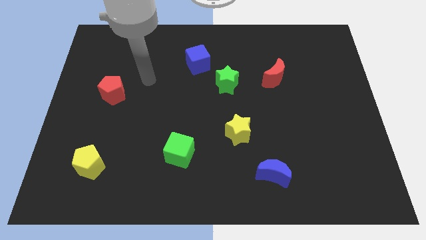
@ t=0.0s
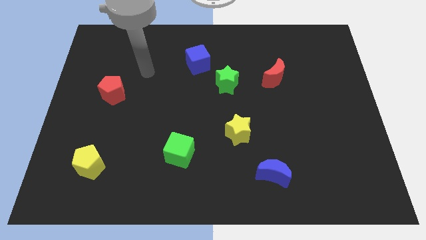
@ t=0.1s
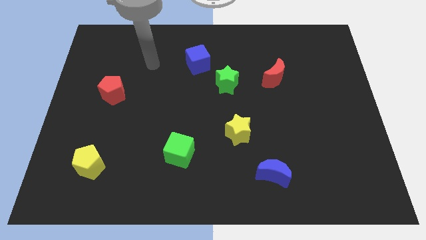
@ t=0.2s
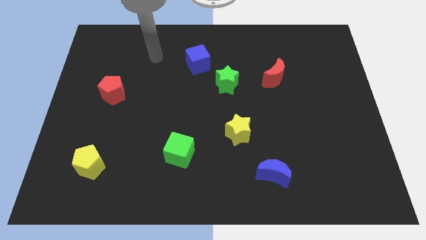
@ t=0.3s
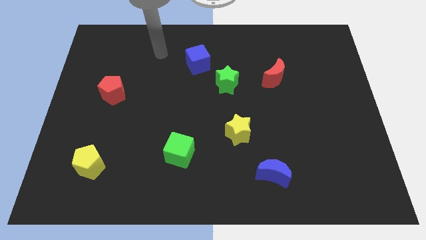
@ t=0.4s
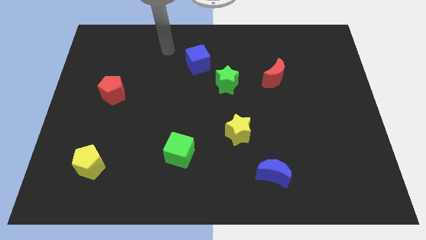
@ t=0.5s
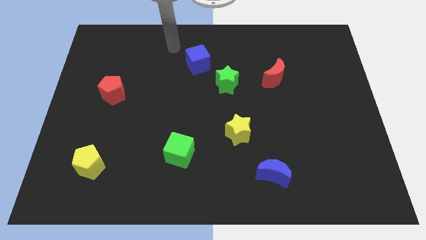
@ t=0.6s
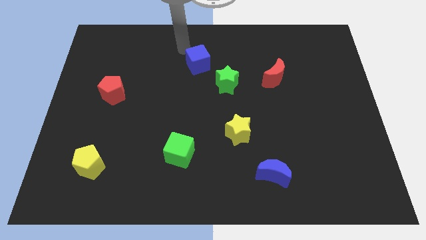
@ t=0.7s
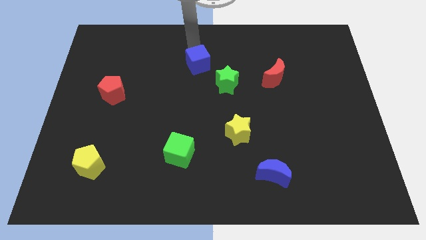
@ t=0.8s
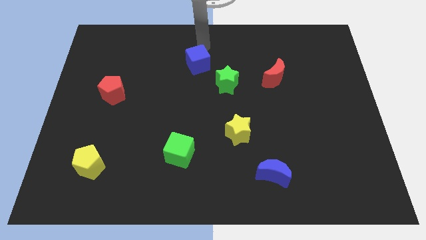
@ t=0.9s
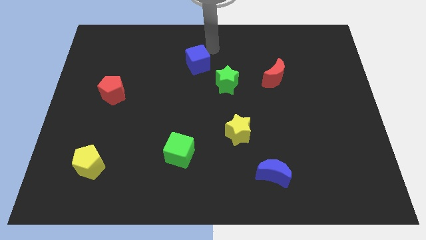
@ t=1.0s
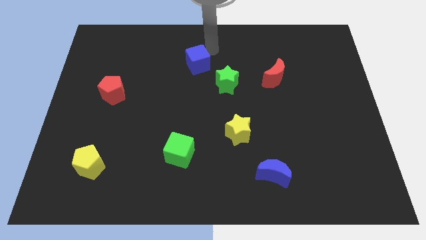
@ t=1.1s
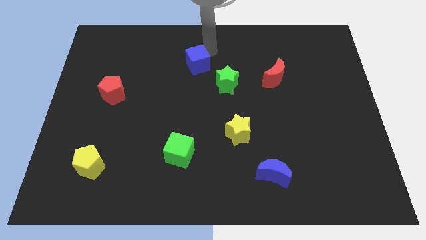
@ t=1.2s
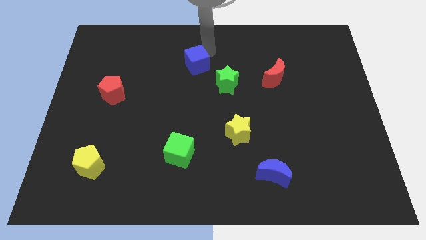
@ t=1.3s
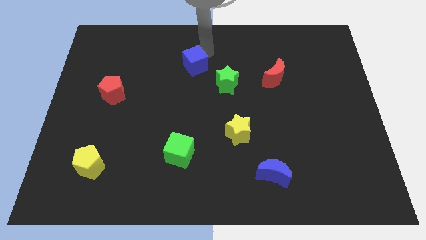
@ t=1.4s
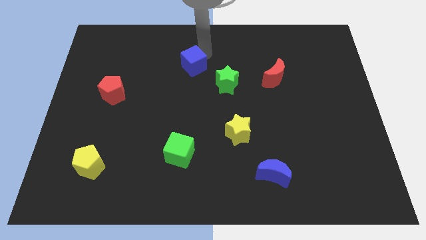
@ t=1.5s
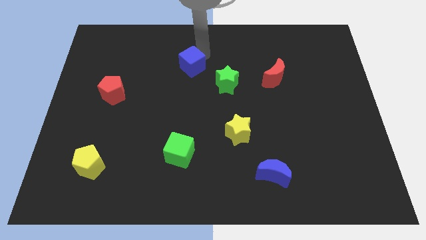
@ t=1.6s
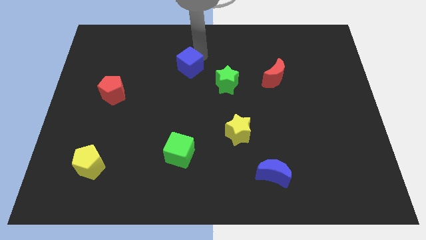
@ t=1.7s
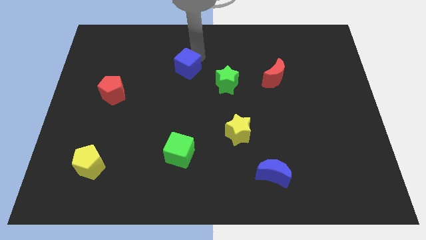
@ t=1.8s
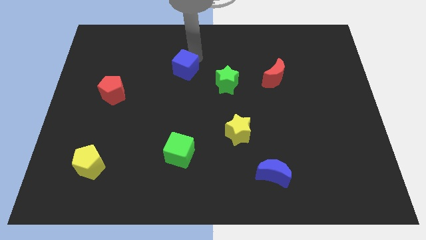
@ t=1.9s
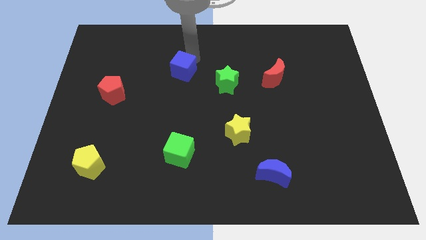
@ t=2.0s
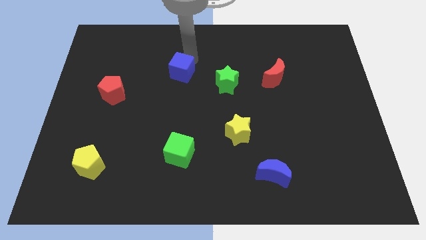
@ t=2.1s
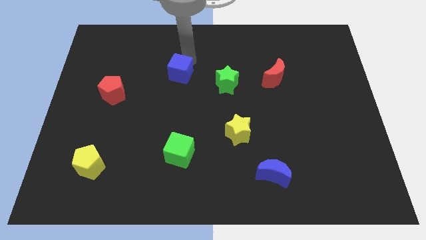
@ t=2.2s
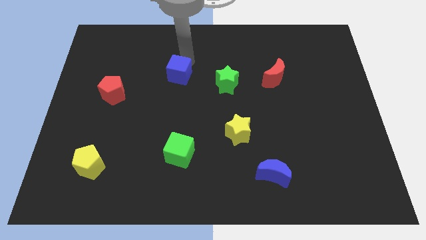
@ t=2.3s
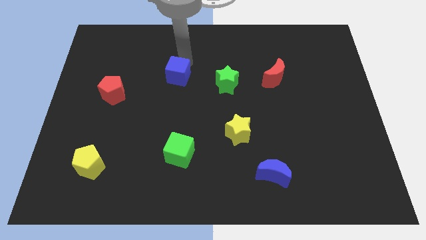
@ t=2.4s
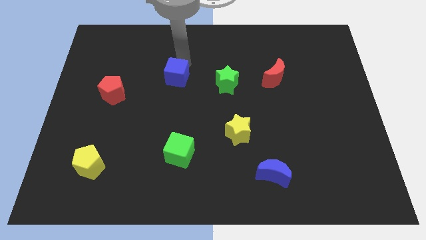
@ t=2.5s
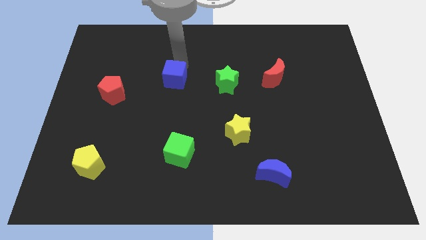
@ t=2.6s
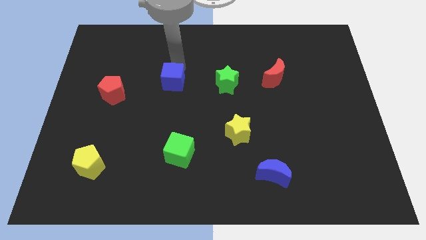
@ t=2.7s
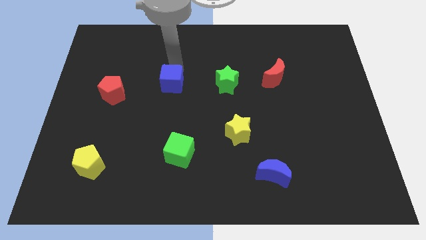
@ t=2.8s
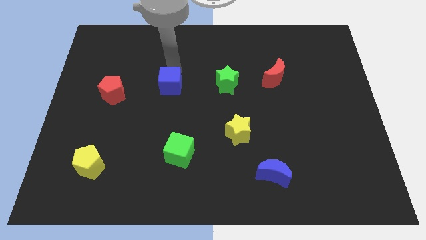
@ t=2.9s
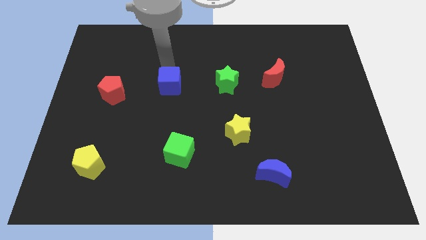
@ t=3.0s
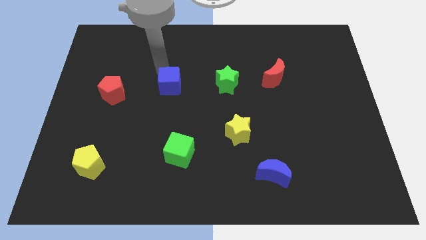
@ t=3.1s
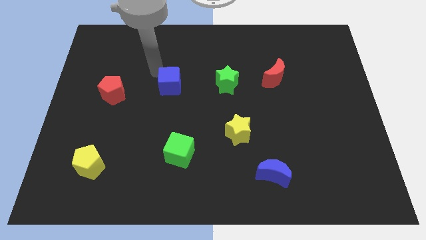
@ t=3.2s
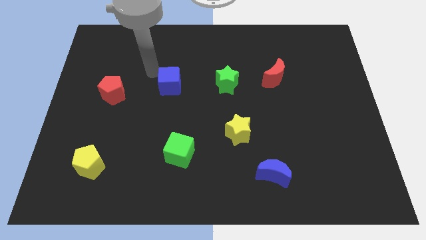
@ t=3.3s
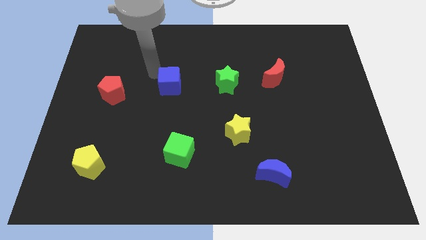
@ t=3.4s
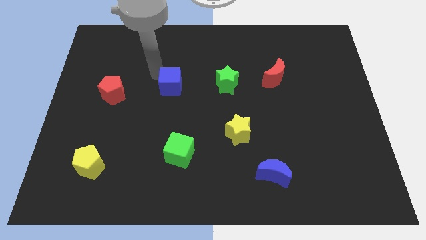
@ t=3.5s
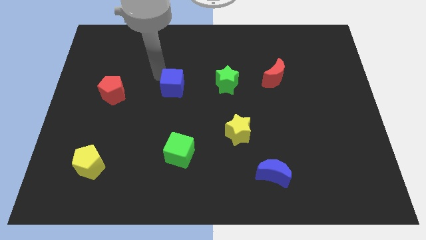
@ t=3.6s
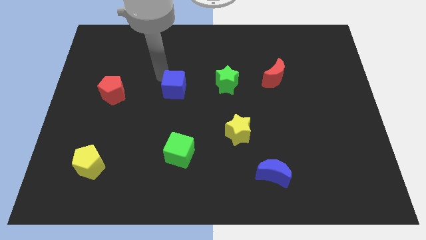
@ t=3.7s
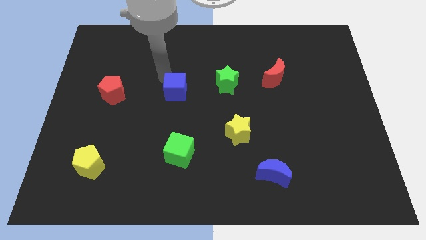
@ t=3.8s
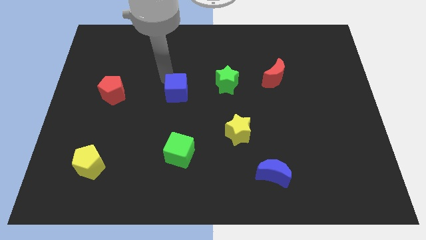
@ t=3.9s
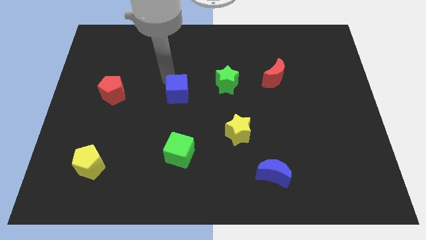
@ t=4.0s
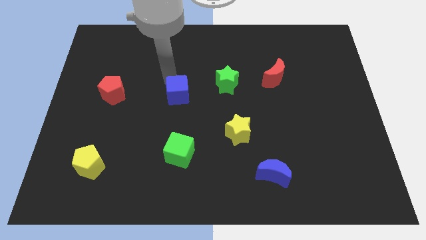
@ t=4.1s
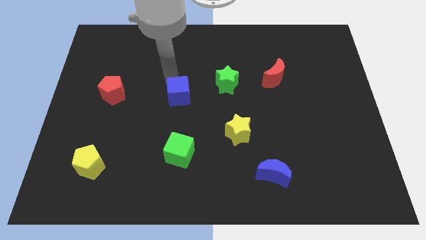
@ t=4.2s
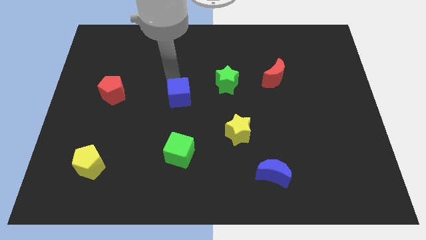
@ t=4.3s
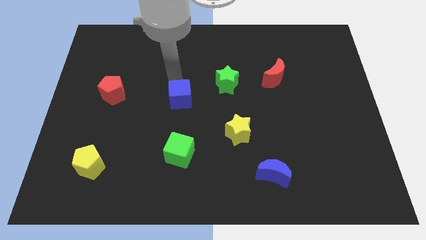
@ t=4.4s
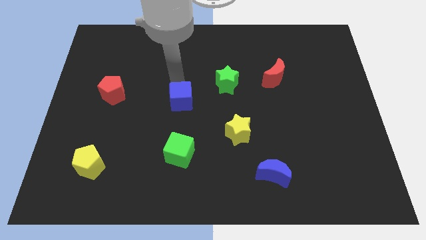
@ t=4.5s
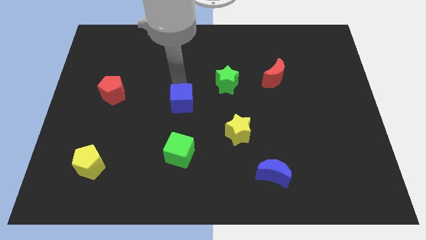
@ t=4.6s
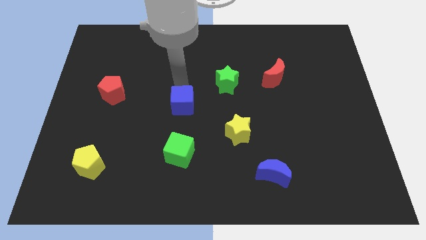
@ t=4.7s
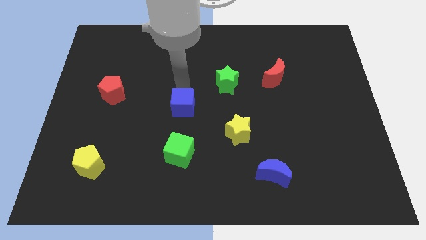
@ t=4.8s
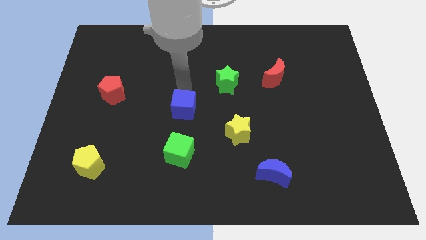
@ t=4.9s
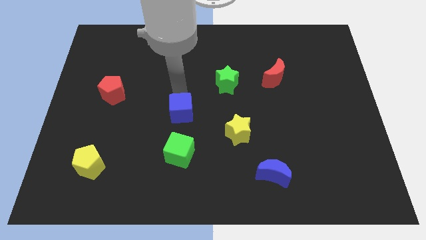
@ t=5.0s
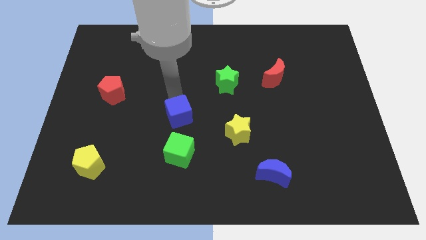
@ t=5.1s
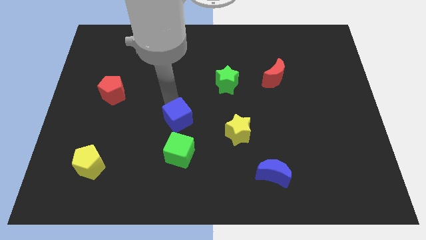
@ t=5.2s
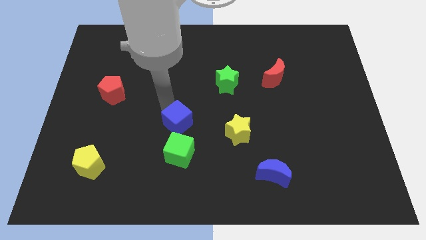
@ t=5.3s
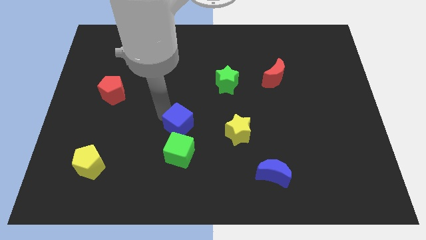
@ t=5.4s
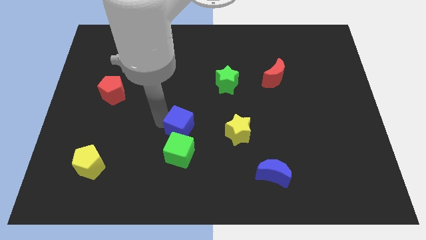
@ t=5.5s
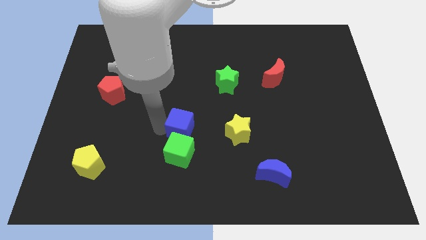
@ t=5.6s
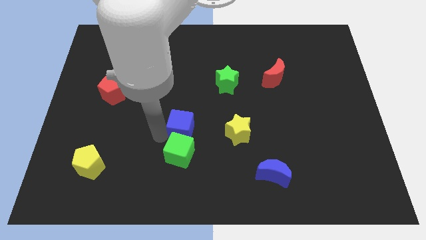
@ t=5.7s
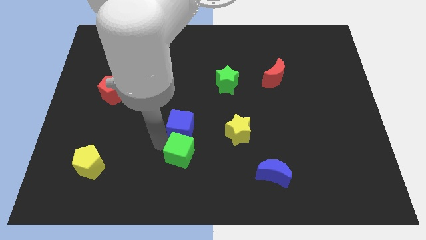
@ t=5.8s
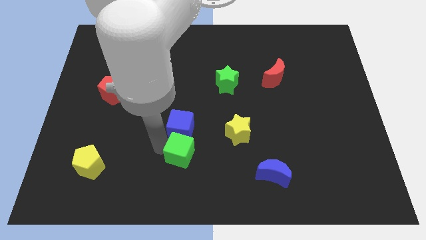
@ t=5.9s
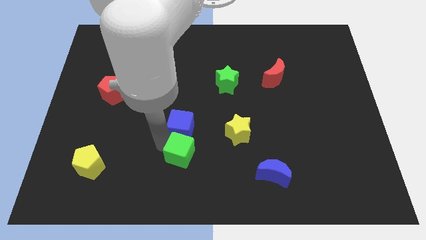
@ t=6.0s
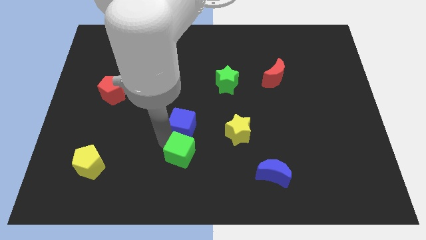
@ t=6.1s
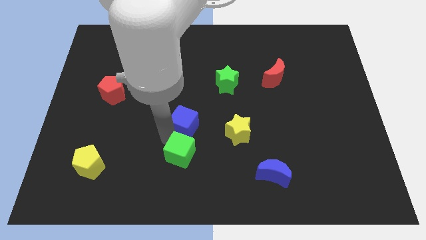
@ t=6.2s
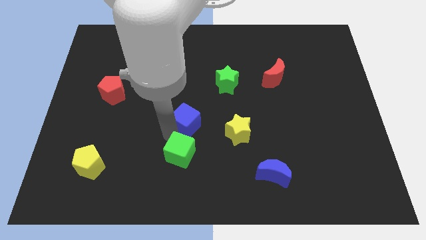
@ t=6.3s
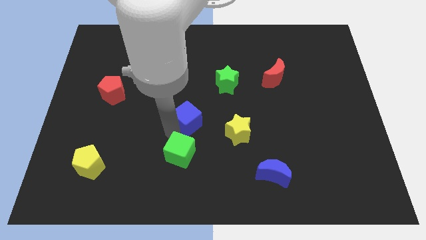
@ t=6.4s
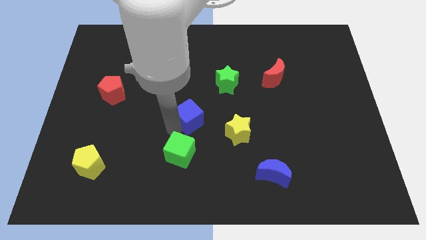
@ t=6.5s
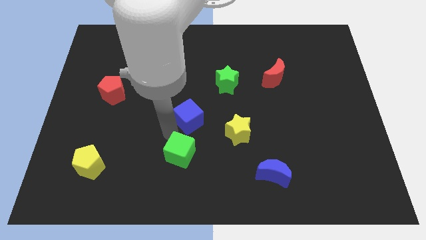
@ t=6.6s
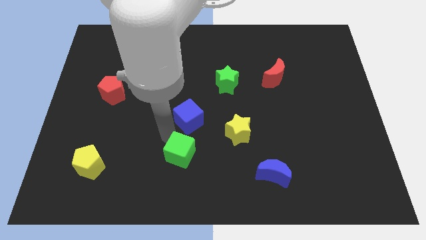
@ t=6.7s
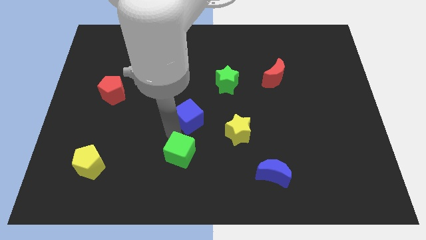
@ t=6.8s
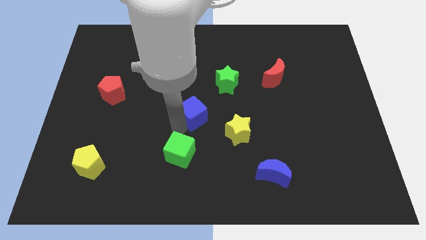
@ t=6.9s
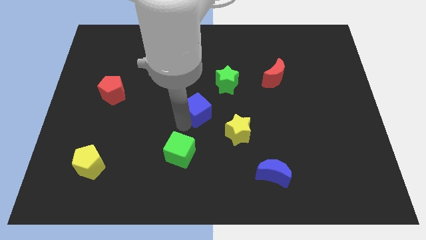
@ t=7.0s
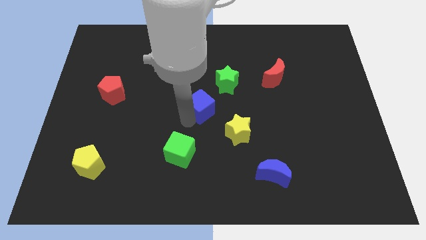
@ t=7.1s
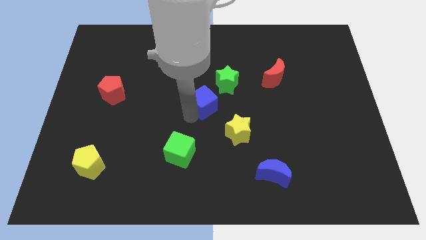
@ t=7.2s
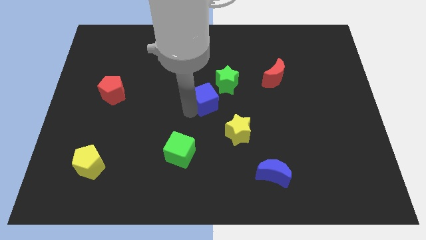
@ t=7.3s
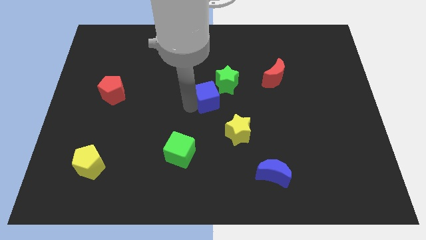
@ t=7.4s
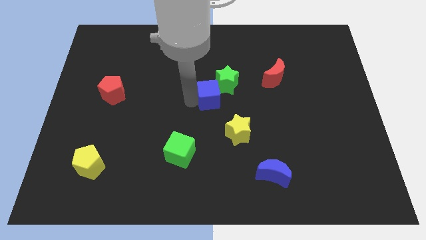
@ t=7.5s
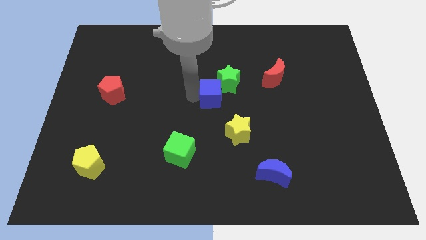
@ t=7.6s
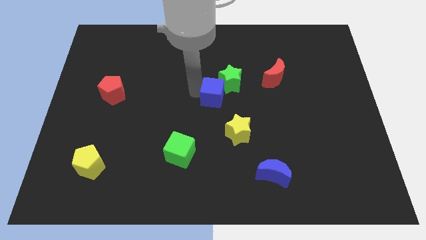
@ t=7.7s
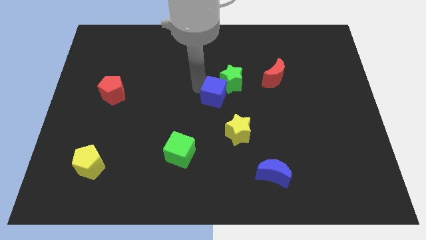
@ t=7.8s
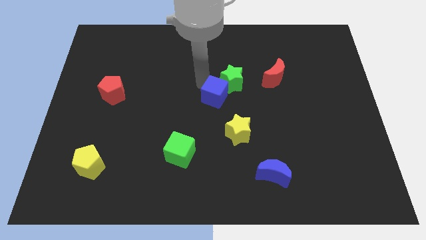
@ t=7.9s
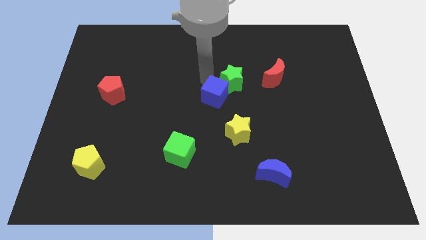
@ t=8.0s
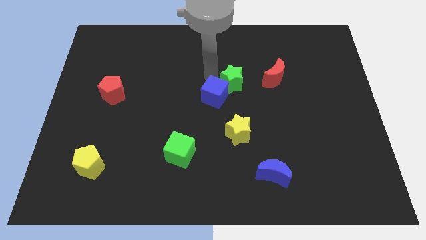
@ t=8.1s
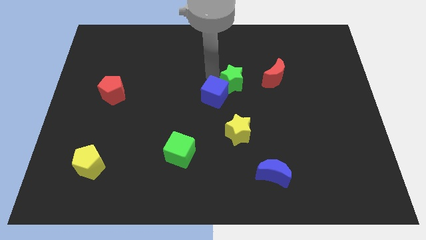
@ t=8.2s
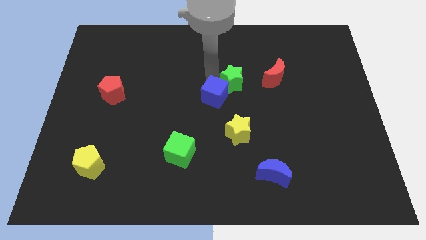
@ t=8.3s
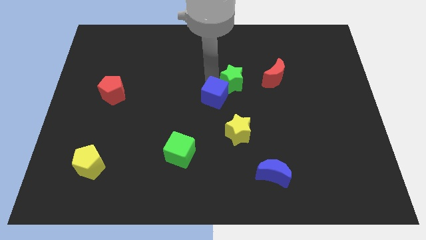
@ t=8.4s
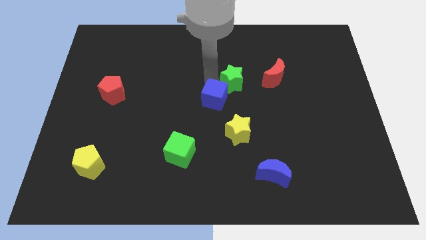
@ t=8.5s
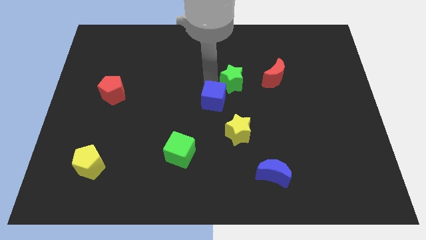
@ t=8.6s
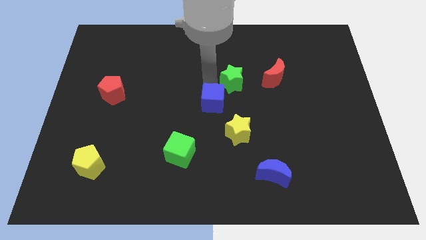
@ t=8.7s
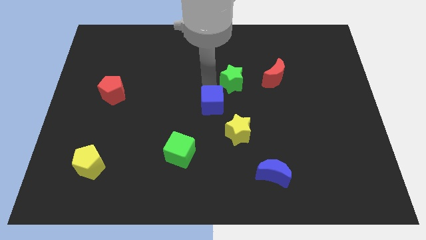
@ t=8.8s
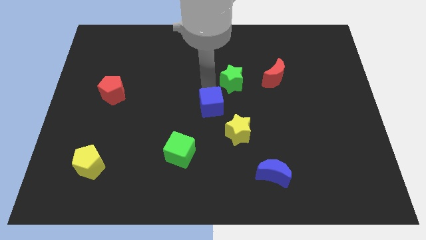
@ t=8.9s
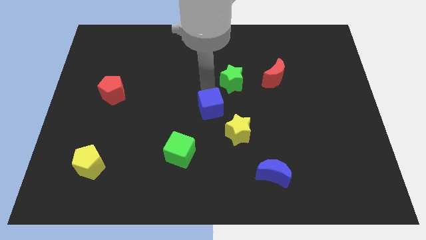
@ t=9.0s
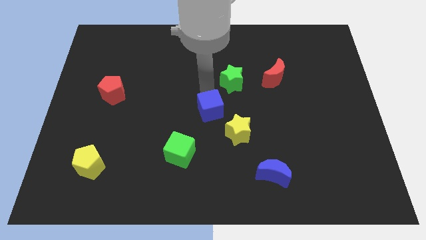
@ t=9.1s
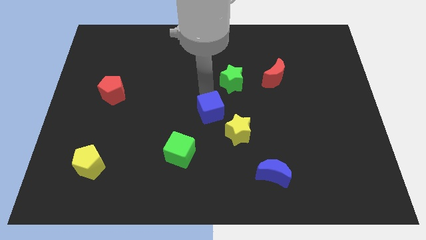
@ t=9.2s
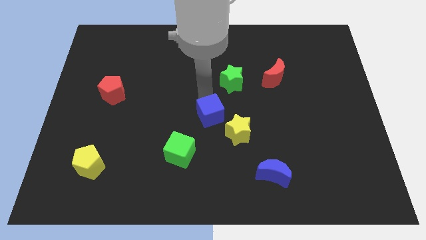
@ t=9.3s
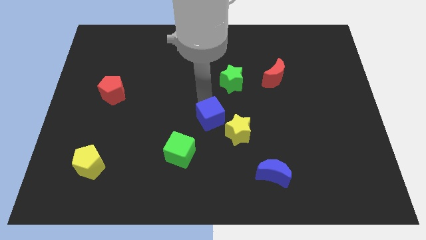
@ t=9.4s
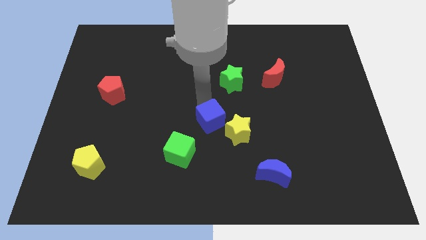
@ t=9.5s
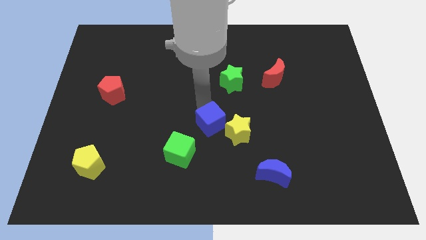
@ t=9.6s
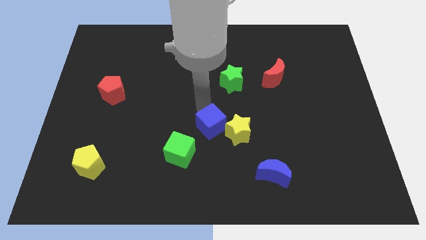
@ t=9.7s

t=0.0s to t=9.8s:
move the blue cube towards the yellow star
